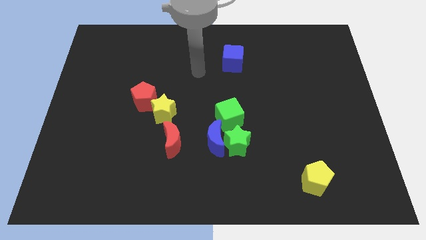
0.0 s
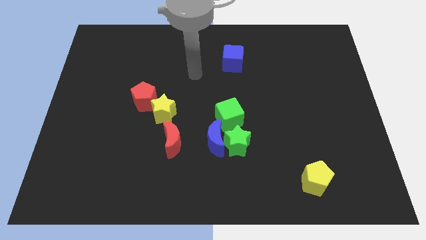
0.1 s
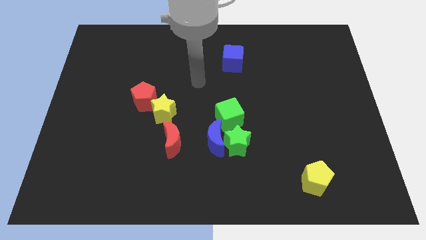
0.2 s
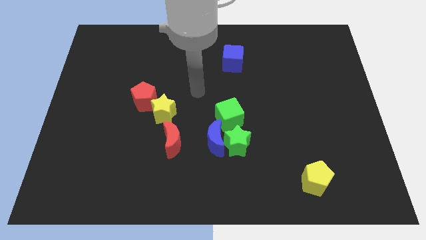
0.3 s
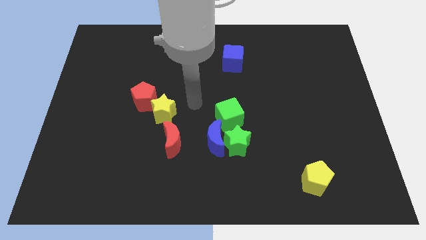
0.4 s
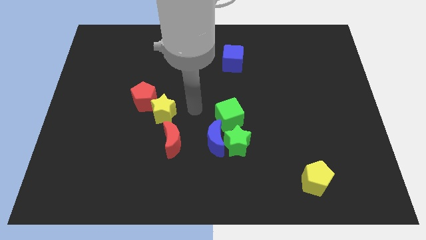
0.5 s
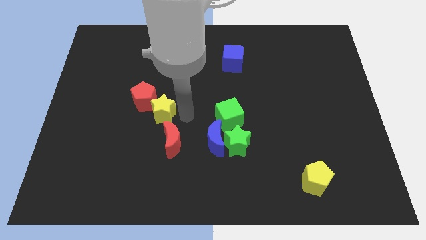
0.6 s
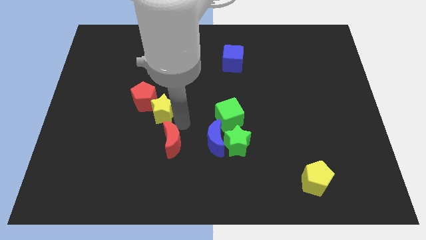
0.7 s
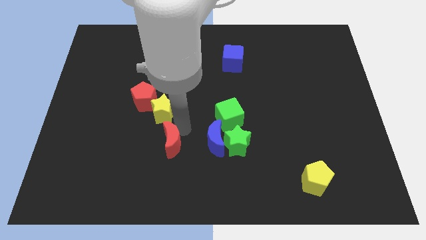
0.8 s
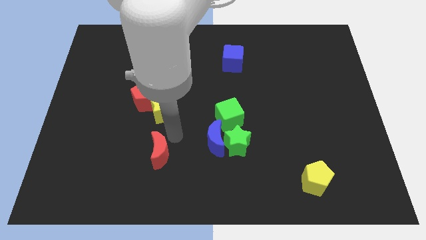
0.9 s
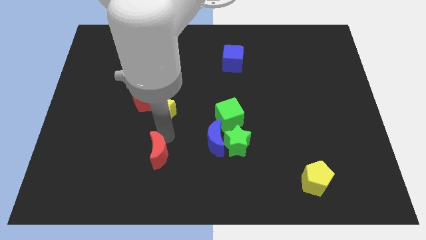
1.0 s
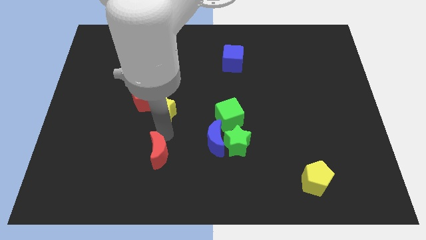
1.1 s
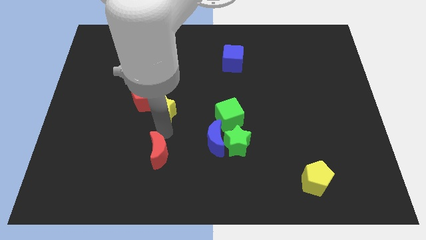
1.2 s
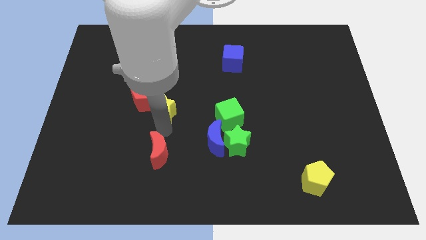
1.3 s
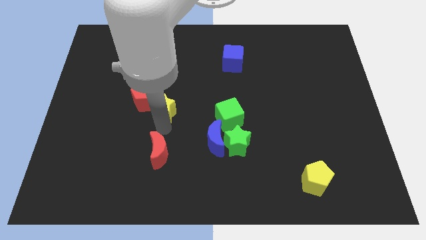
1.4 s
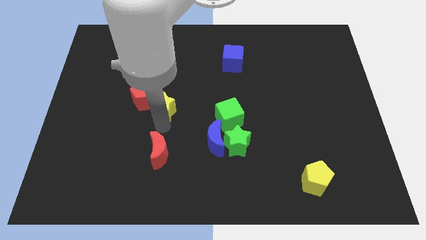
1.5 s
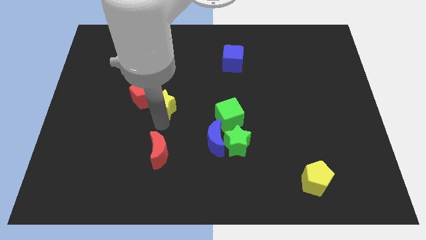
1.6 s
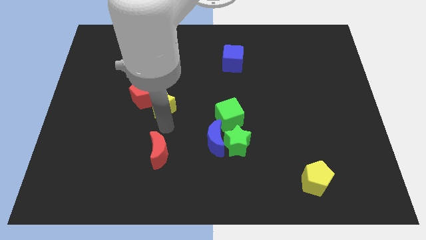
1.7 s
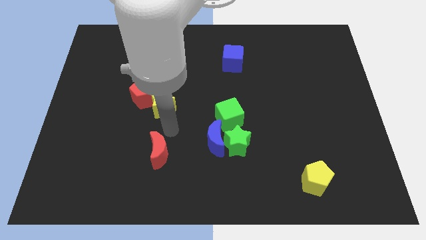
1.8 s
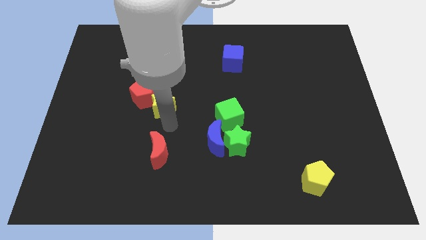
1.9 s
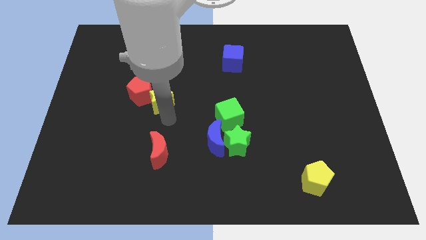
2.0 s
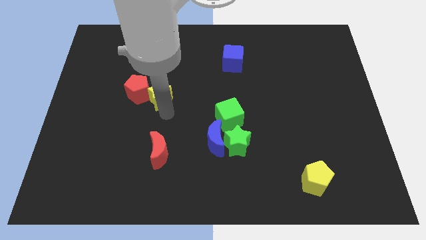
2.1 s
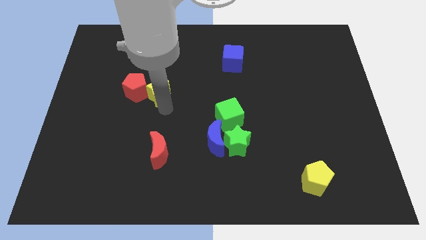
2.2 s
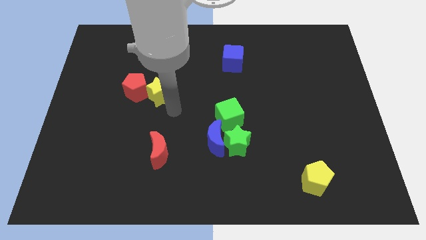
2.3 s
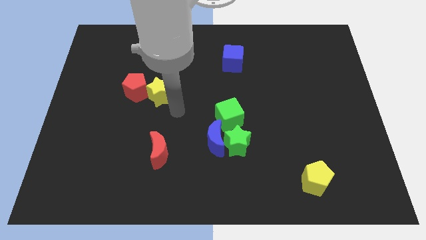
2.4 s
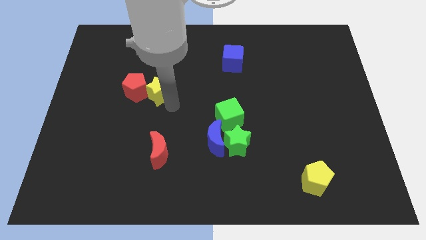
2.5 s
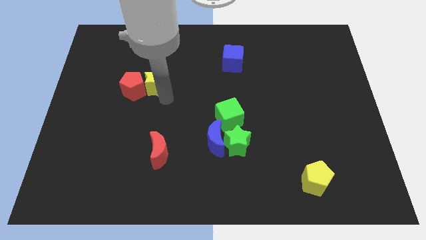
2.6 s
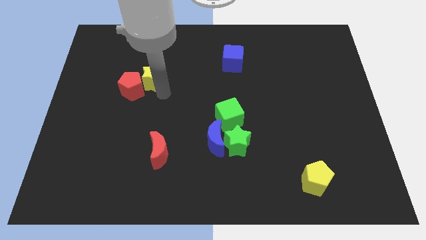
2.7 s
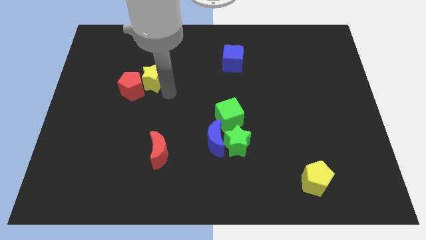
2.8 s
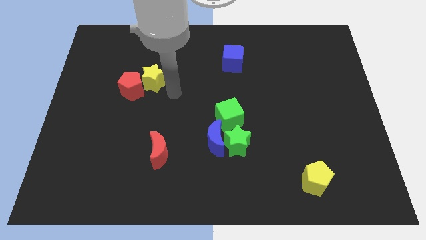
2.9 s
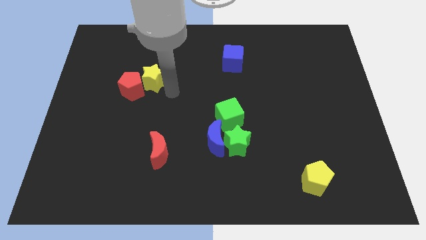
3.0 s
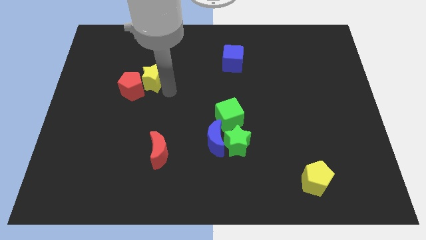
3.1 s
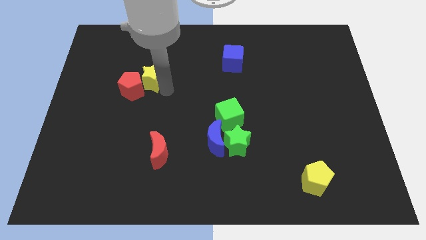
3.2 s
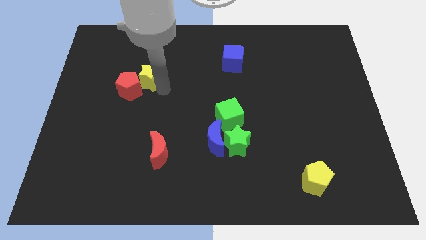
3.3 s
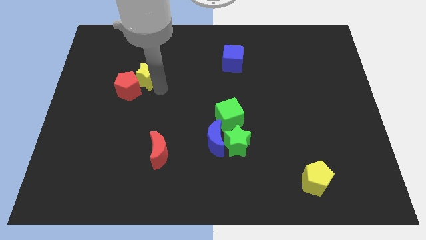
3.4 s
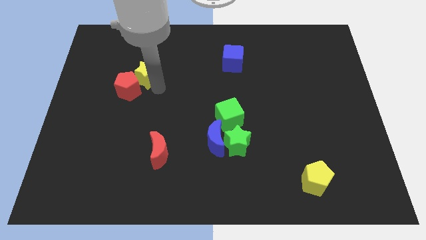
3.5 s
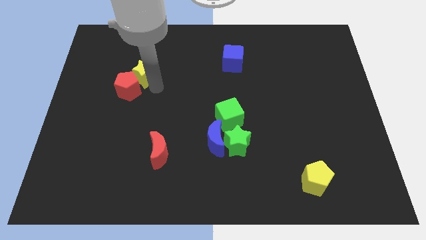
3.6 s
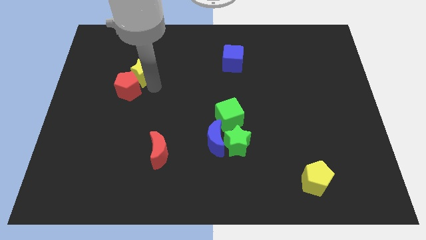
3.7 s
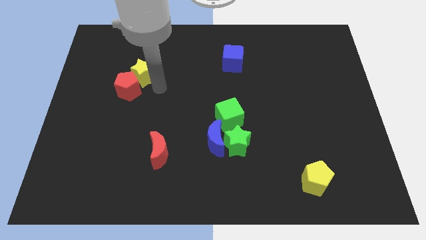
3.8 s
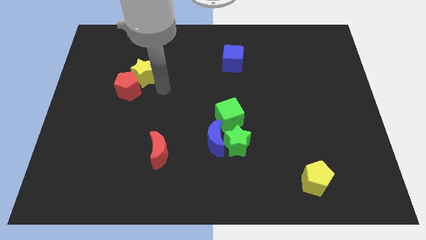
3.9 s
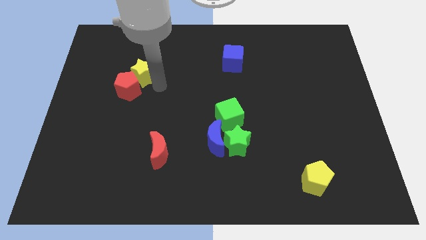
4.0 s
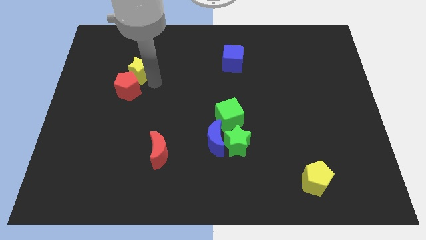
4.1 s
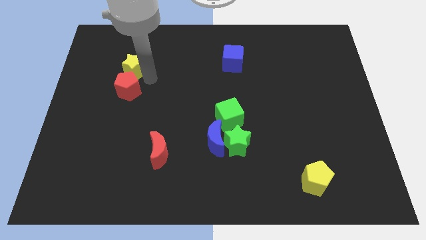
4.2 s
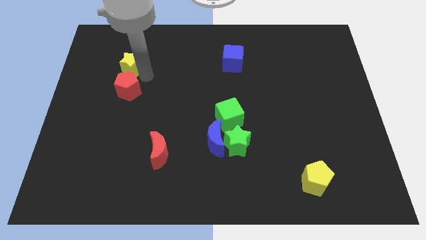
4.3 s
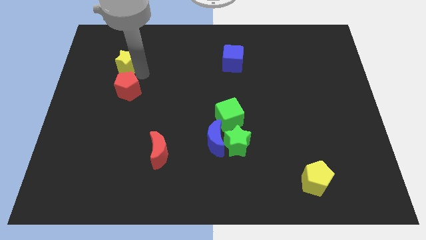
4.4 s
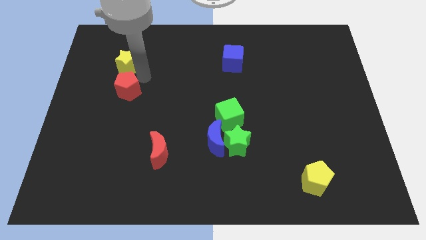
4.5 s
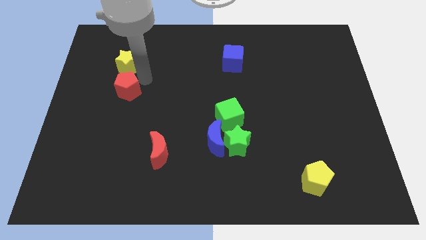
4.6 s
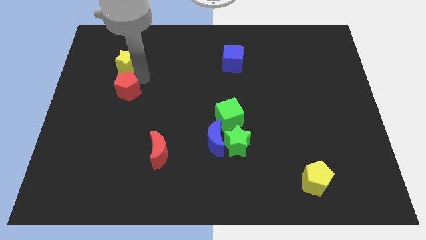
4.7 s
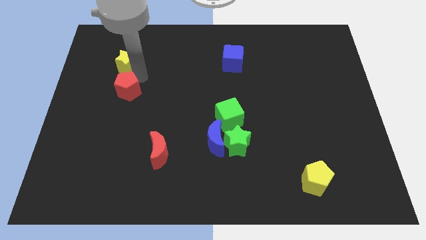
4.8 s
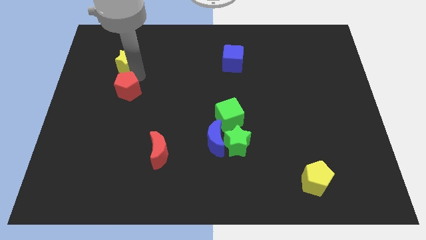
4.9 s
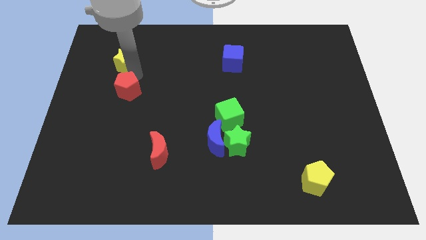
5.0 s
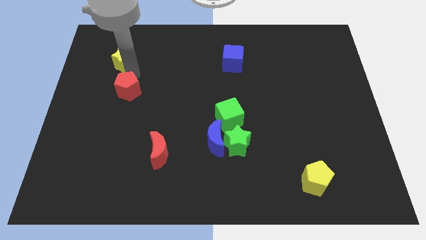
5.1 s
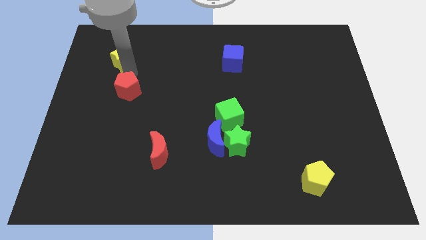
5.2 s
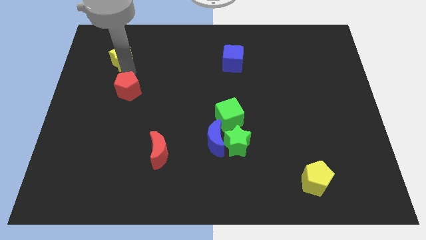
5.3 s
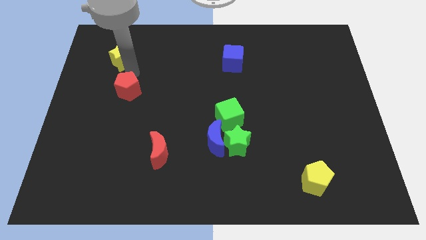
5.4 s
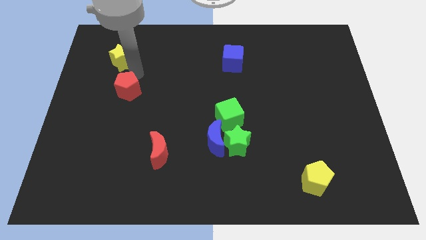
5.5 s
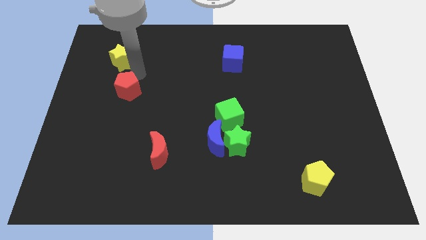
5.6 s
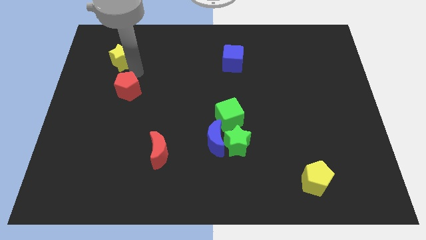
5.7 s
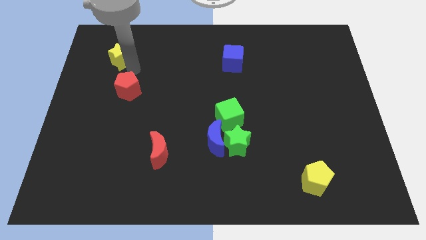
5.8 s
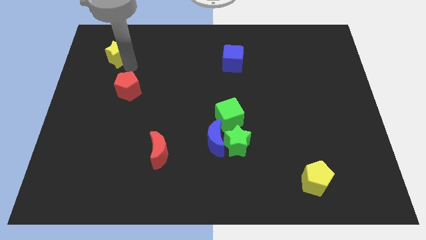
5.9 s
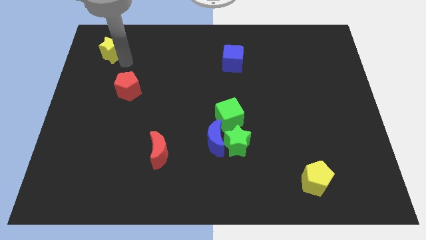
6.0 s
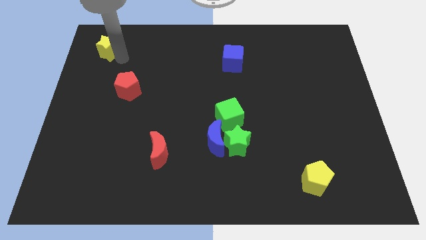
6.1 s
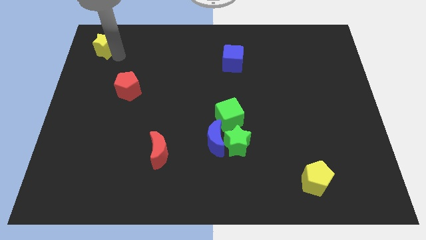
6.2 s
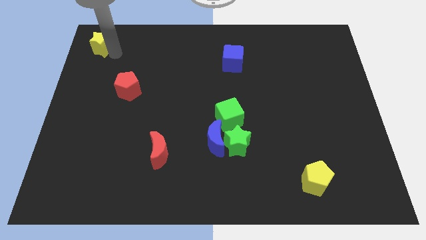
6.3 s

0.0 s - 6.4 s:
slide the yellow star to the upper left corner

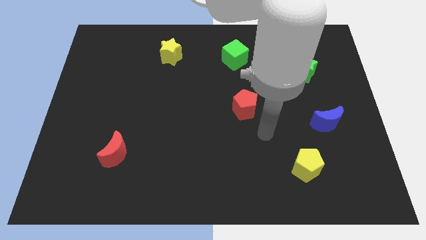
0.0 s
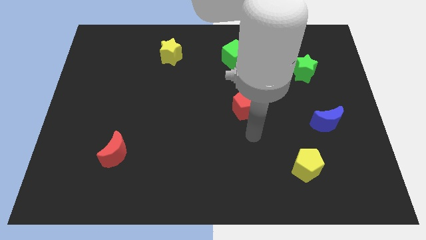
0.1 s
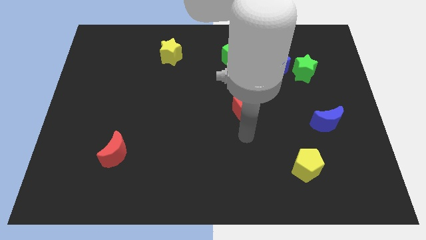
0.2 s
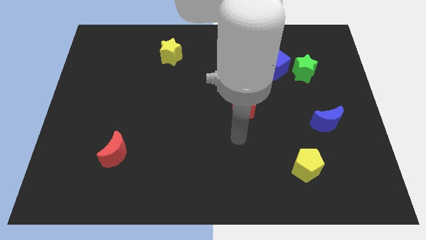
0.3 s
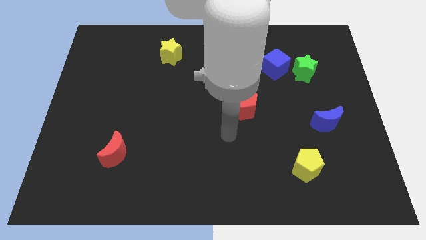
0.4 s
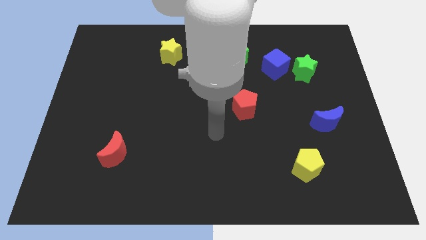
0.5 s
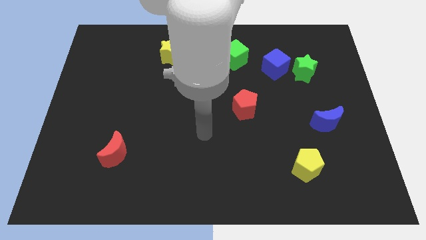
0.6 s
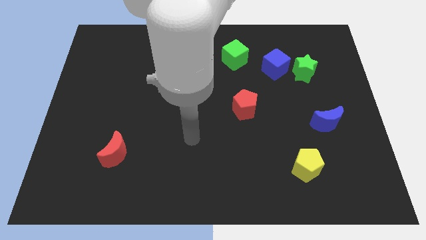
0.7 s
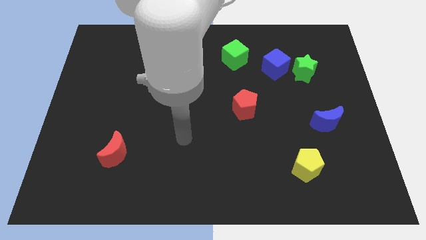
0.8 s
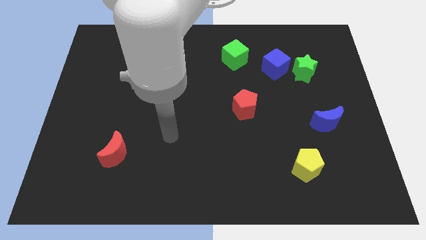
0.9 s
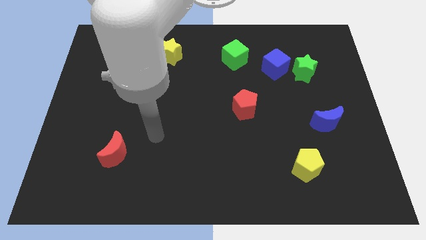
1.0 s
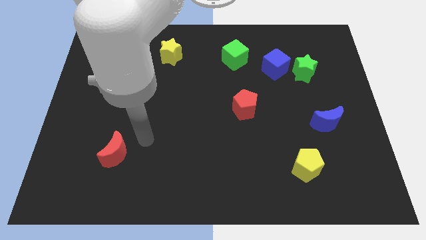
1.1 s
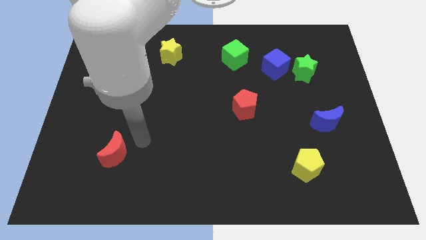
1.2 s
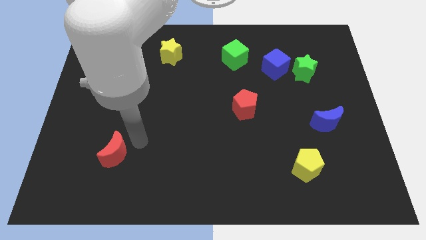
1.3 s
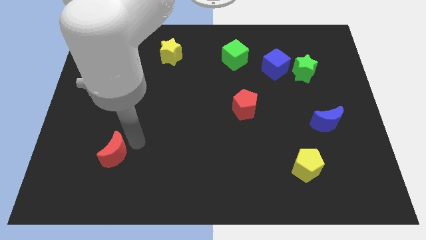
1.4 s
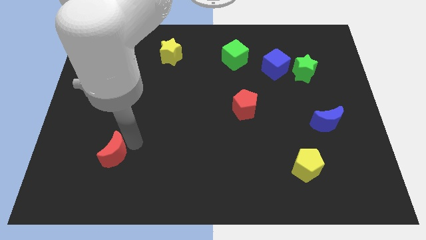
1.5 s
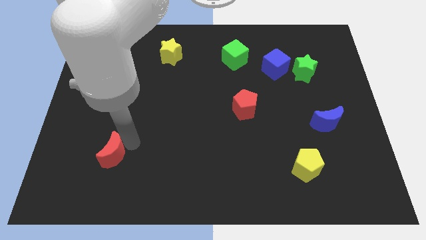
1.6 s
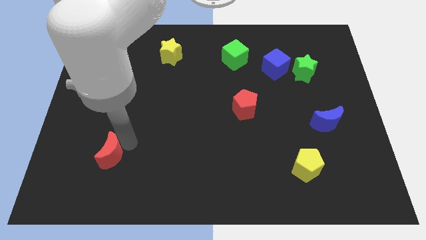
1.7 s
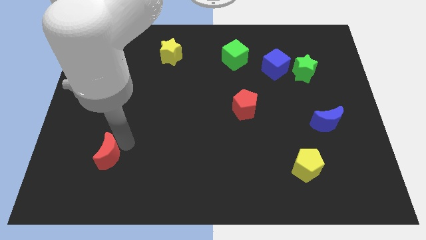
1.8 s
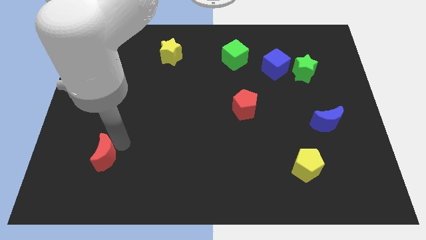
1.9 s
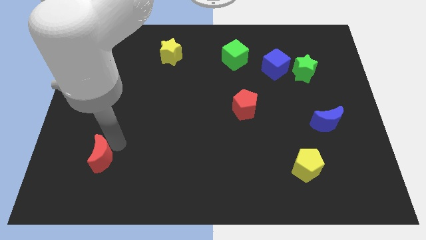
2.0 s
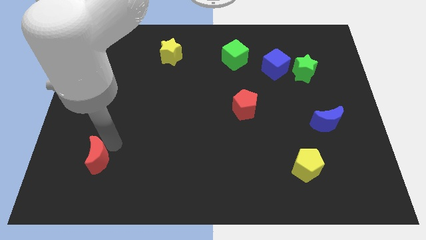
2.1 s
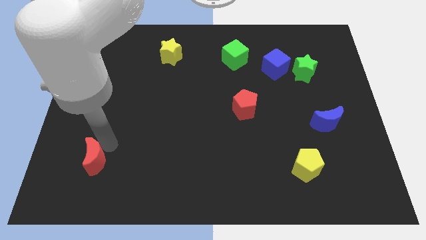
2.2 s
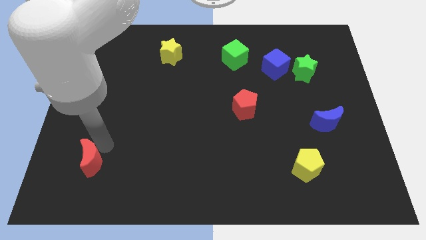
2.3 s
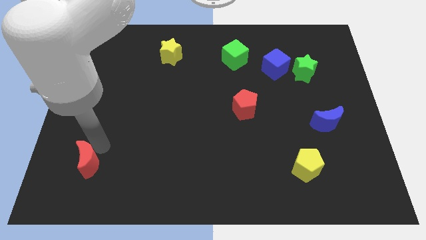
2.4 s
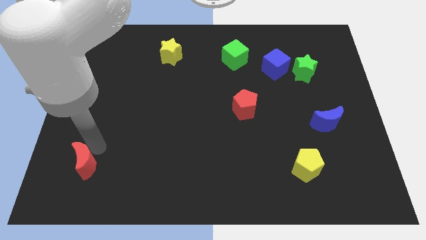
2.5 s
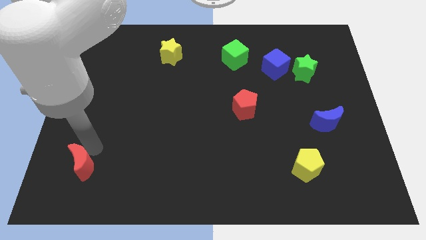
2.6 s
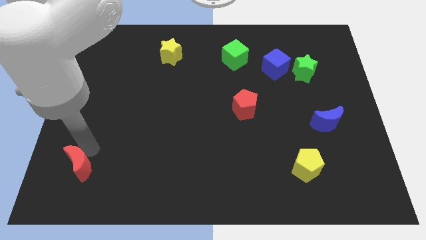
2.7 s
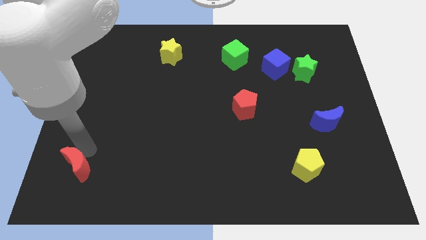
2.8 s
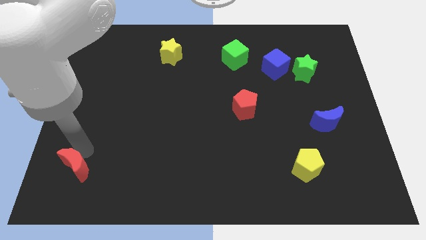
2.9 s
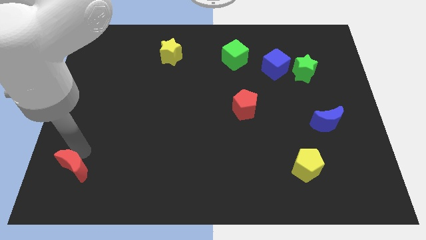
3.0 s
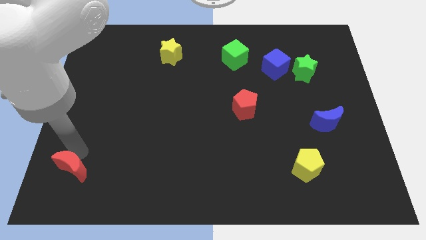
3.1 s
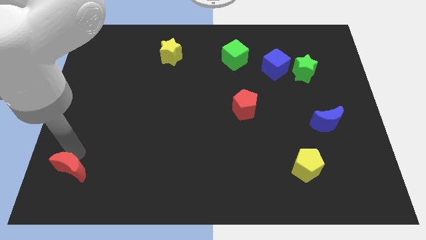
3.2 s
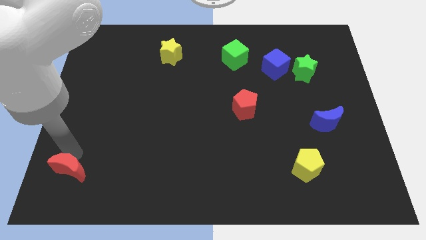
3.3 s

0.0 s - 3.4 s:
slide the red moon to the bottom left
